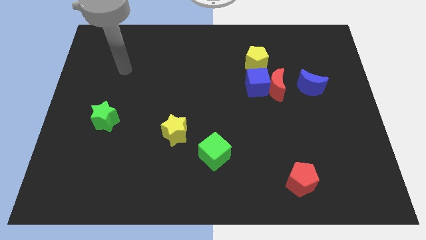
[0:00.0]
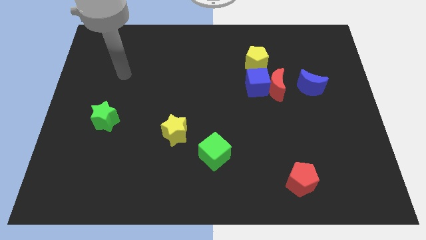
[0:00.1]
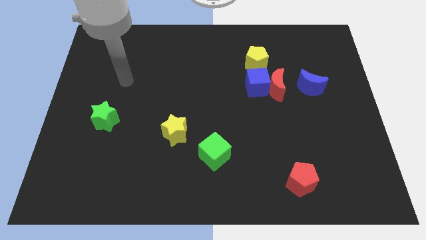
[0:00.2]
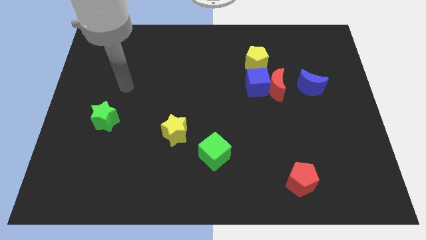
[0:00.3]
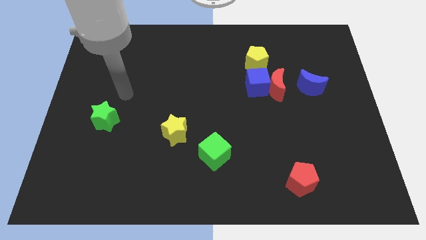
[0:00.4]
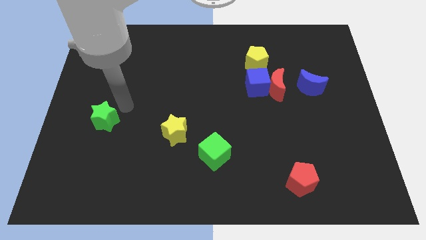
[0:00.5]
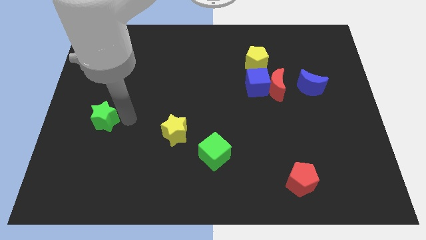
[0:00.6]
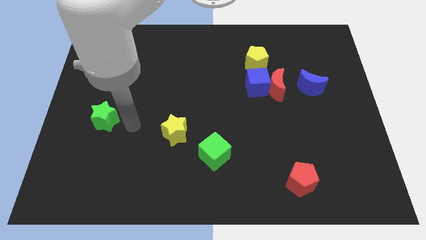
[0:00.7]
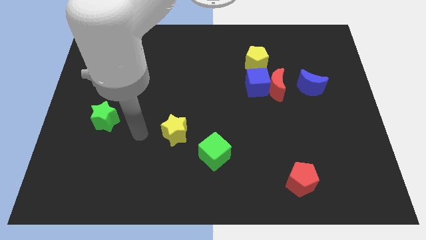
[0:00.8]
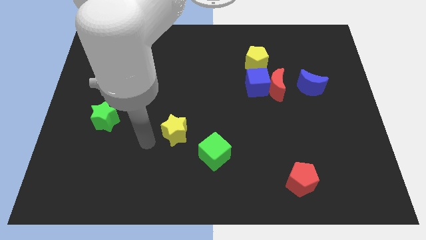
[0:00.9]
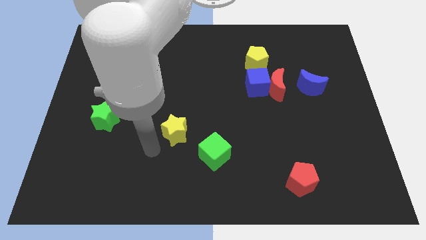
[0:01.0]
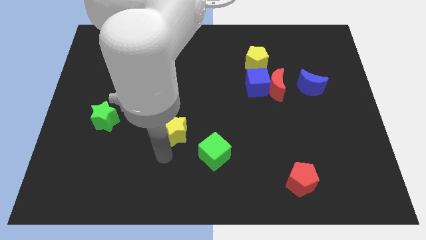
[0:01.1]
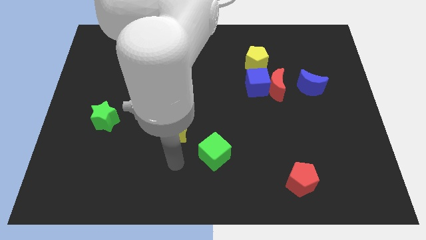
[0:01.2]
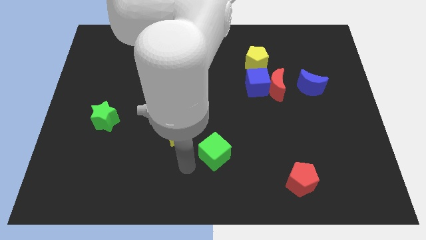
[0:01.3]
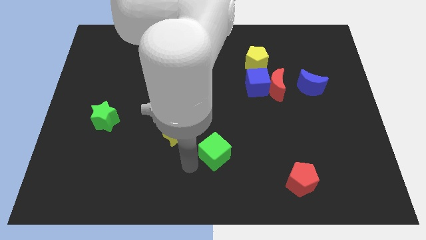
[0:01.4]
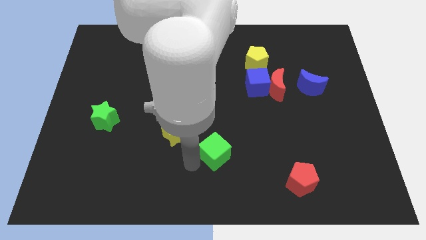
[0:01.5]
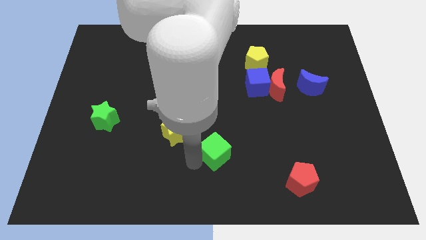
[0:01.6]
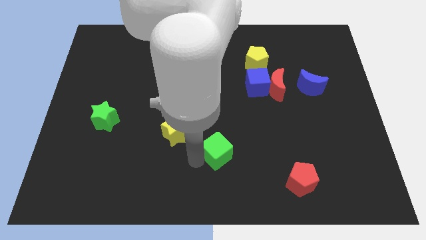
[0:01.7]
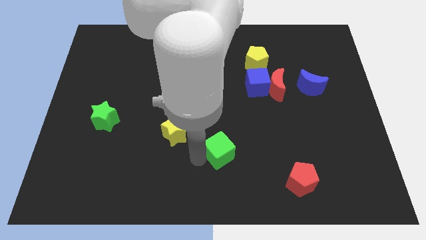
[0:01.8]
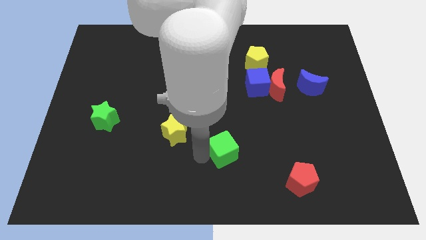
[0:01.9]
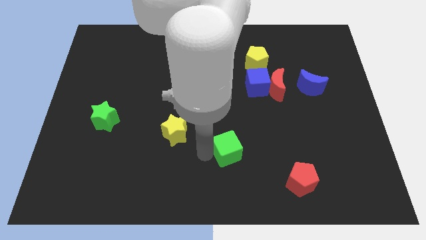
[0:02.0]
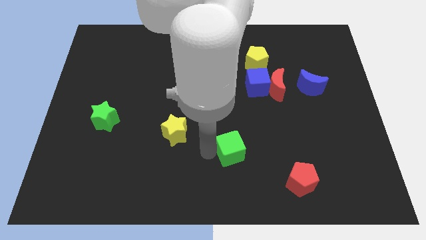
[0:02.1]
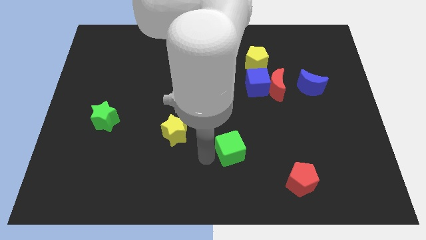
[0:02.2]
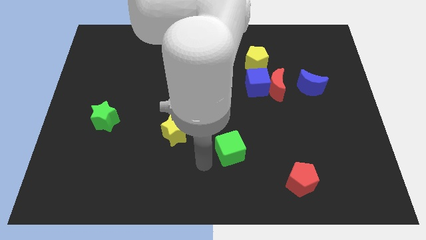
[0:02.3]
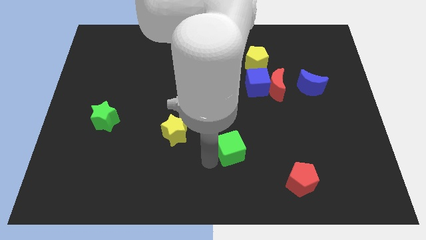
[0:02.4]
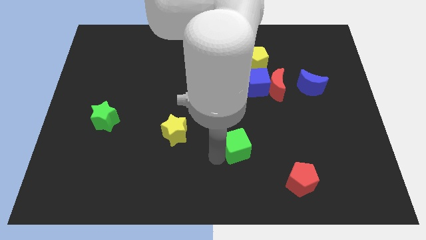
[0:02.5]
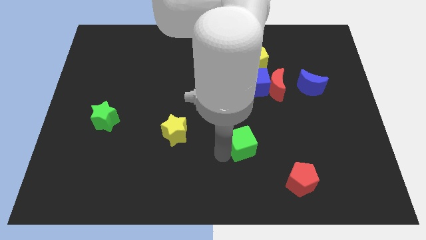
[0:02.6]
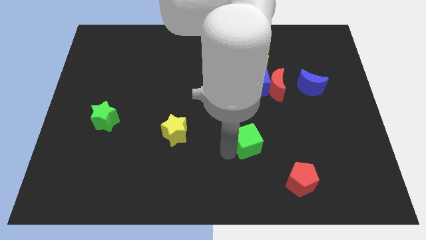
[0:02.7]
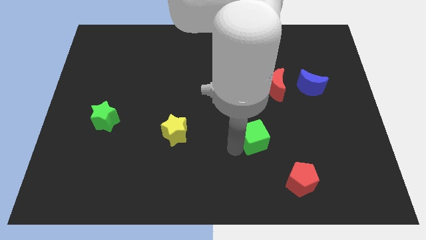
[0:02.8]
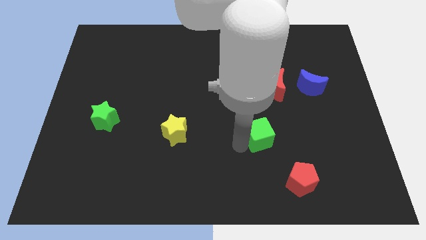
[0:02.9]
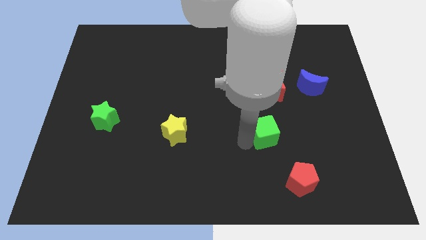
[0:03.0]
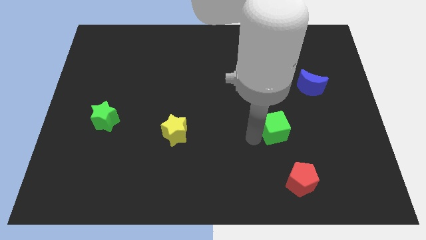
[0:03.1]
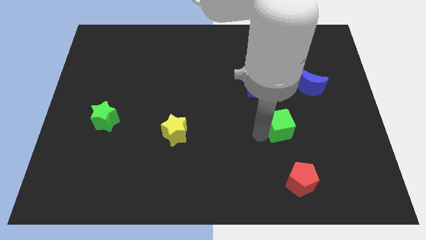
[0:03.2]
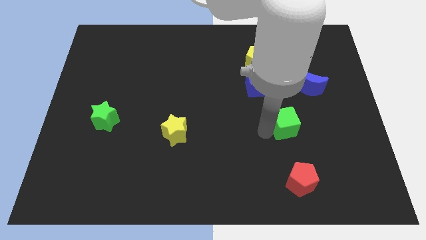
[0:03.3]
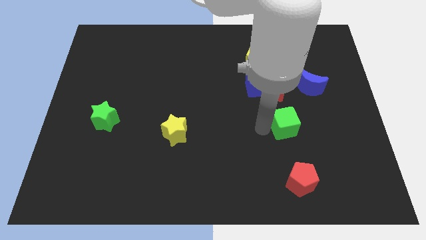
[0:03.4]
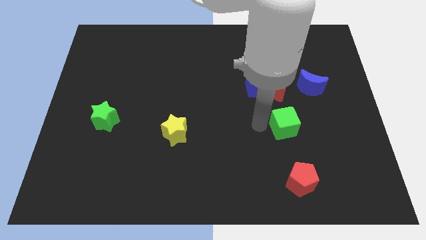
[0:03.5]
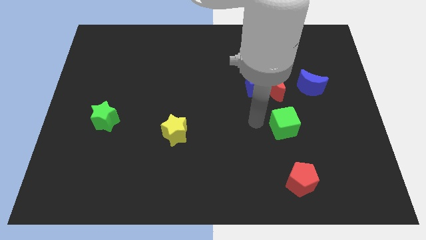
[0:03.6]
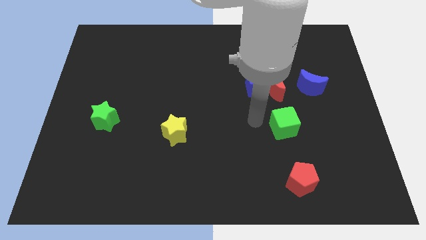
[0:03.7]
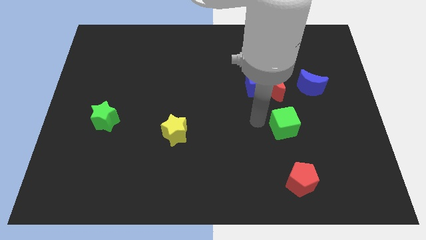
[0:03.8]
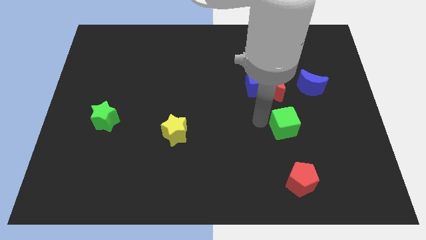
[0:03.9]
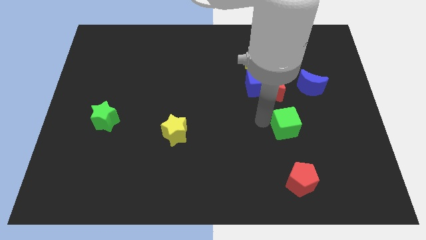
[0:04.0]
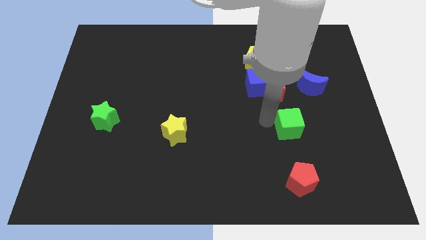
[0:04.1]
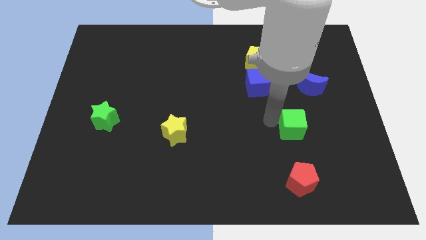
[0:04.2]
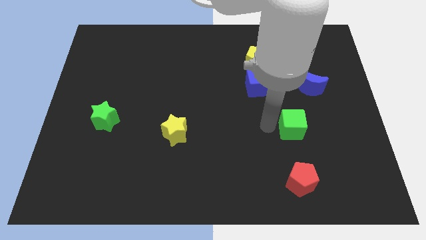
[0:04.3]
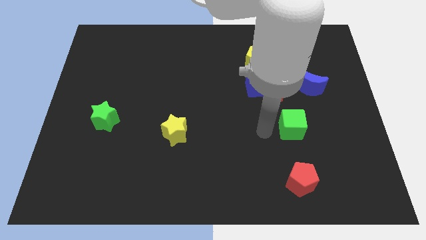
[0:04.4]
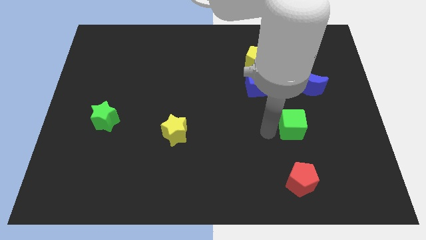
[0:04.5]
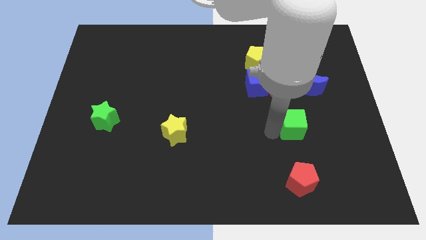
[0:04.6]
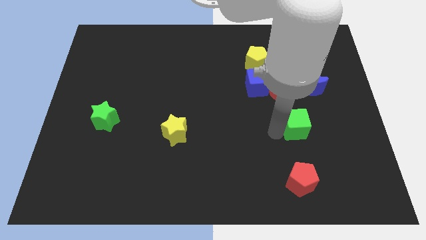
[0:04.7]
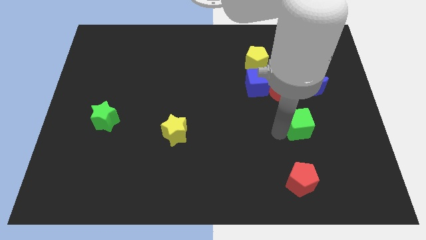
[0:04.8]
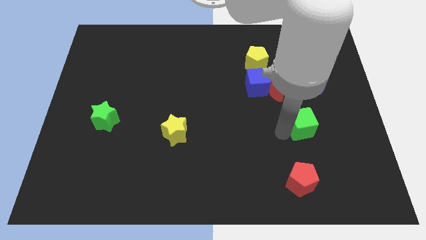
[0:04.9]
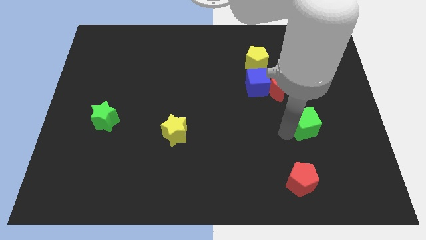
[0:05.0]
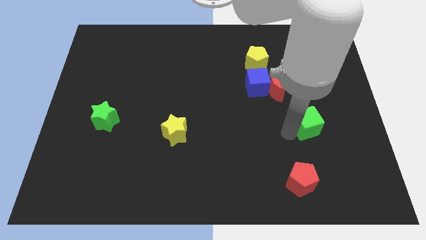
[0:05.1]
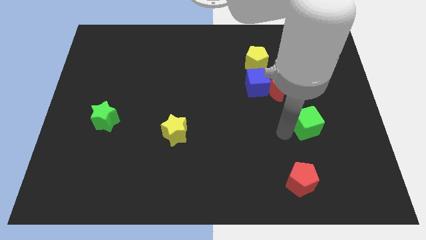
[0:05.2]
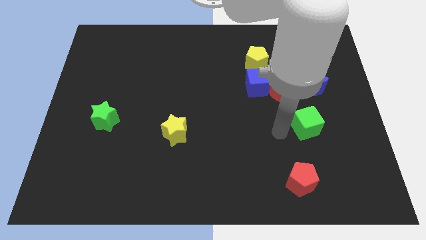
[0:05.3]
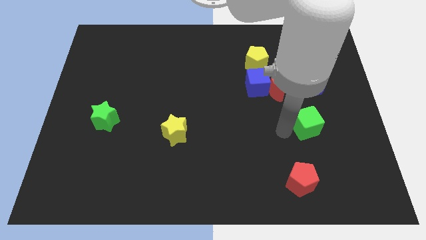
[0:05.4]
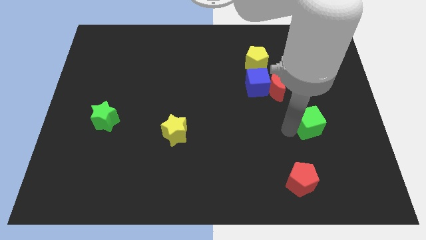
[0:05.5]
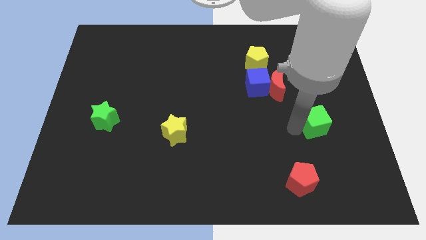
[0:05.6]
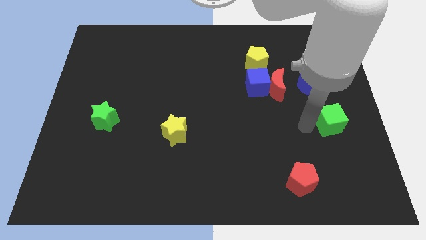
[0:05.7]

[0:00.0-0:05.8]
put the green cube to the right side of the board

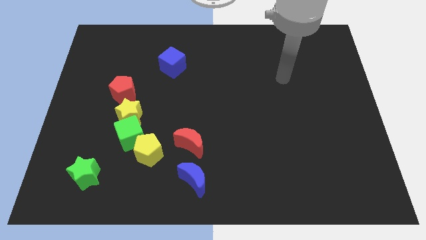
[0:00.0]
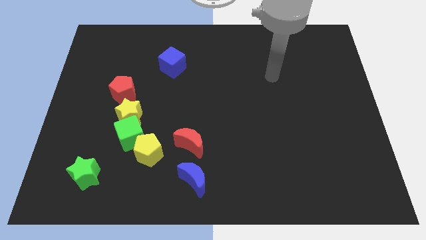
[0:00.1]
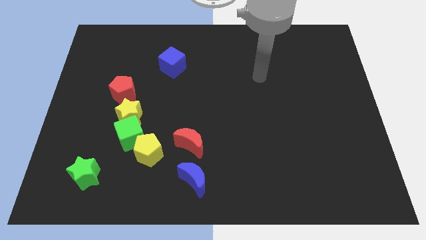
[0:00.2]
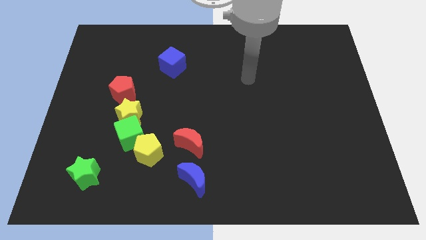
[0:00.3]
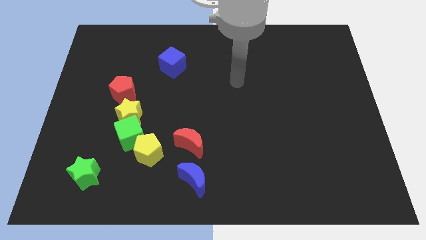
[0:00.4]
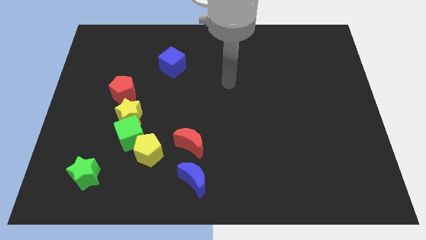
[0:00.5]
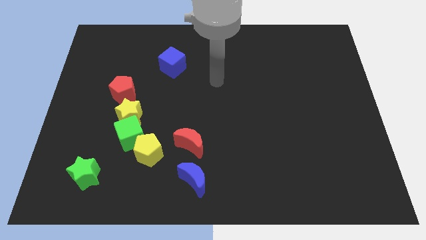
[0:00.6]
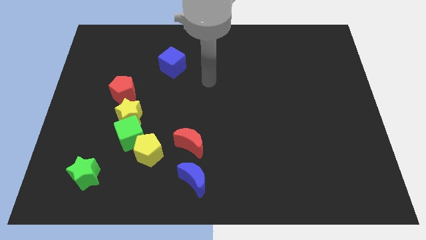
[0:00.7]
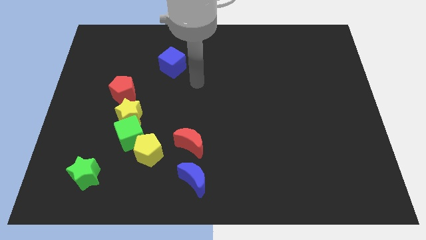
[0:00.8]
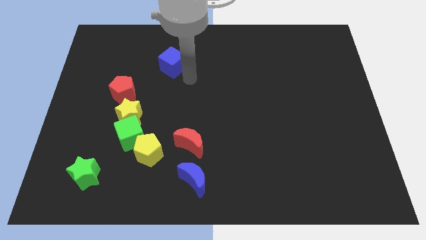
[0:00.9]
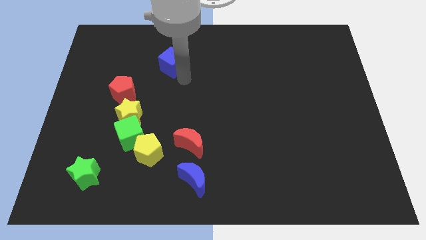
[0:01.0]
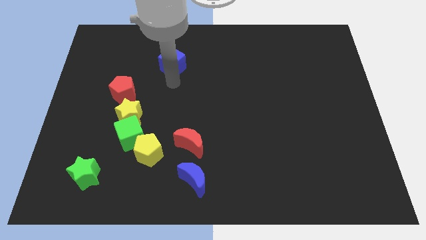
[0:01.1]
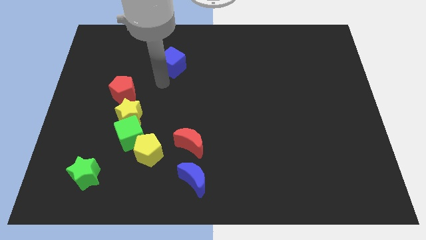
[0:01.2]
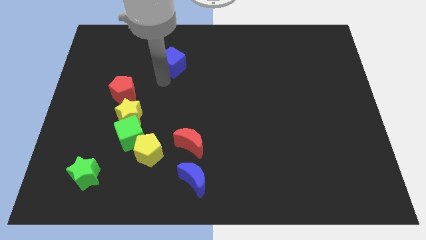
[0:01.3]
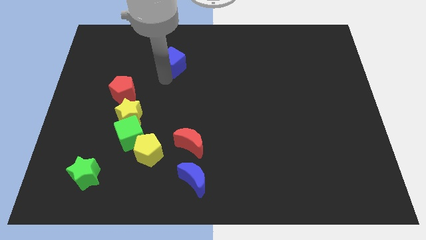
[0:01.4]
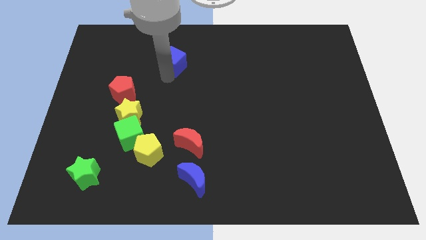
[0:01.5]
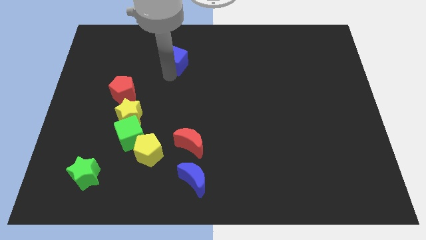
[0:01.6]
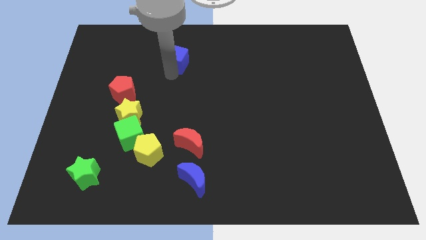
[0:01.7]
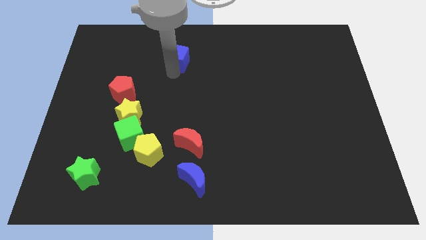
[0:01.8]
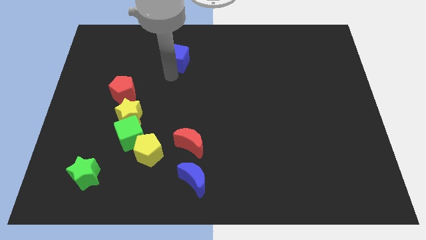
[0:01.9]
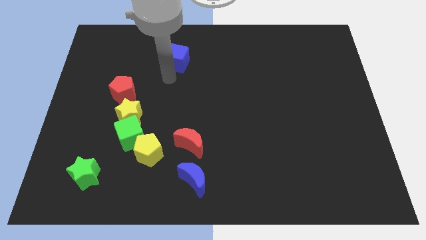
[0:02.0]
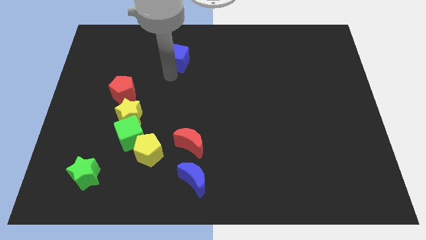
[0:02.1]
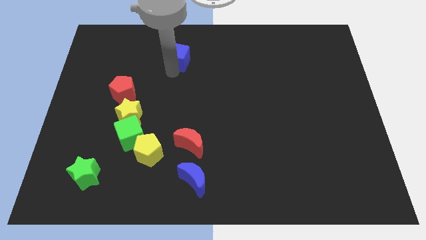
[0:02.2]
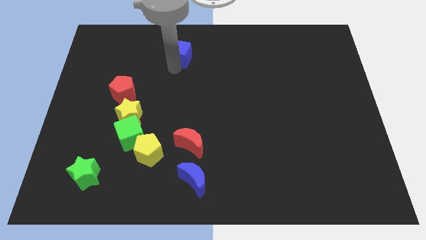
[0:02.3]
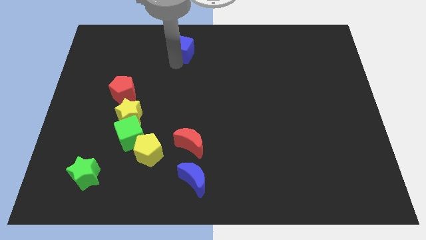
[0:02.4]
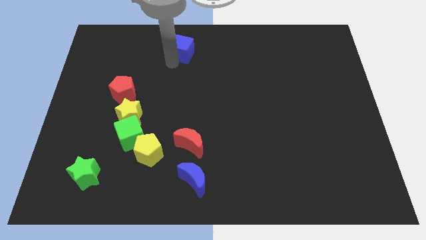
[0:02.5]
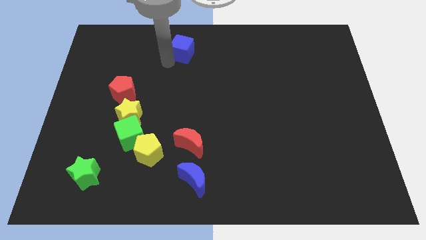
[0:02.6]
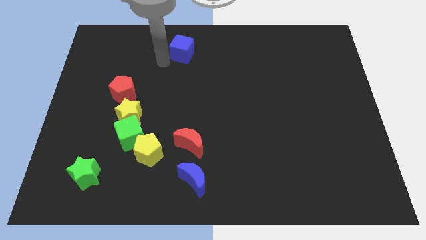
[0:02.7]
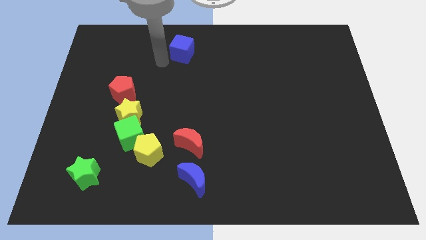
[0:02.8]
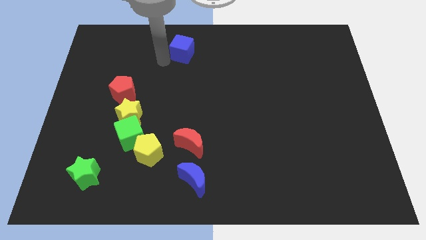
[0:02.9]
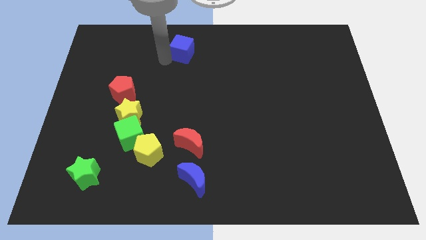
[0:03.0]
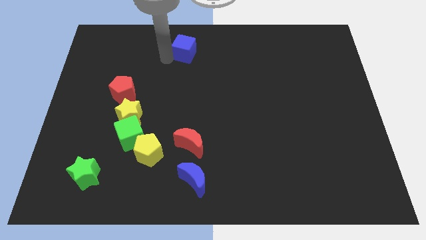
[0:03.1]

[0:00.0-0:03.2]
move the blue cube to the towards your base
